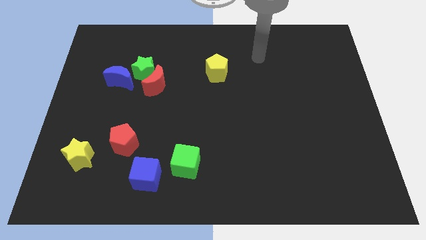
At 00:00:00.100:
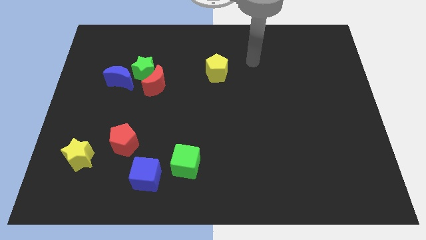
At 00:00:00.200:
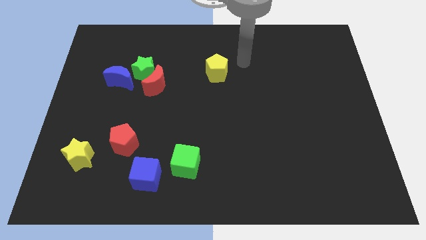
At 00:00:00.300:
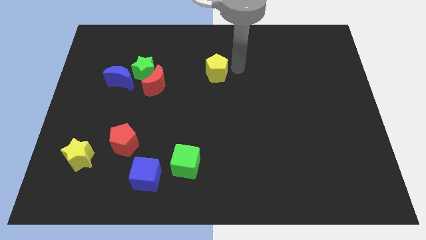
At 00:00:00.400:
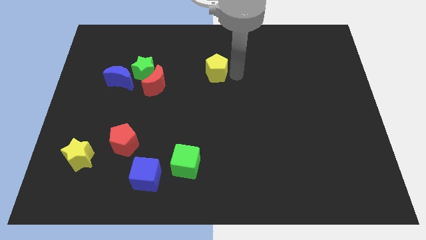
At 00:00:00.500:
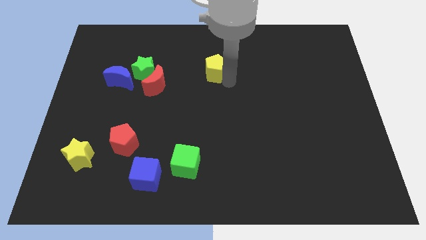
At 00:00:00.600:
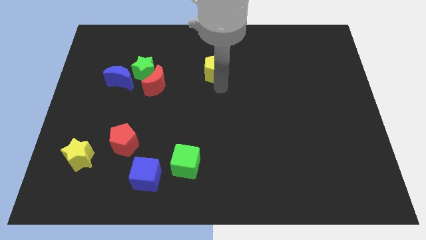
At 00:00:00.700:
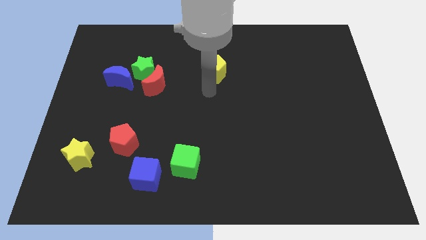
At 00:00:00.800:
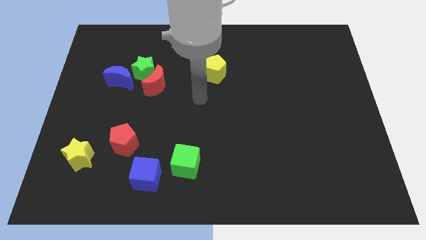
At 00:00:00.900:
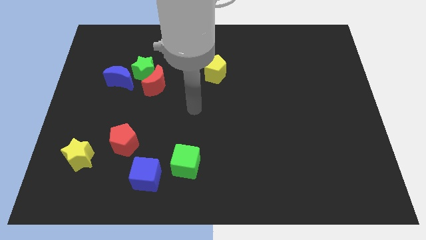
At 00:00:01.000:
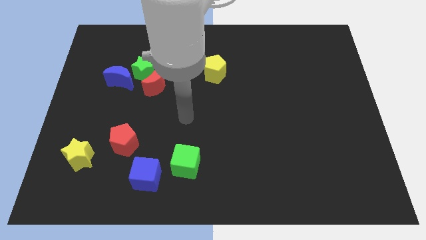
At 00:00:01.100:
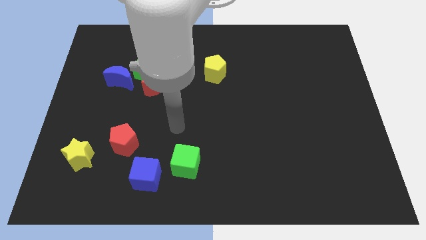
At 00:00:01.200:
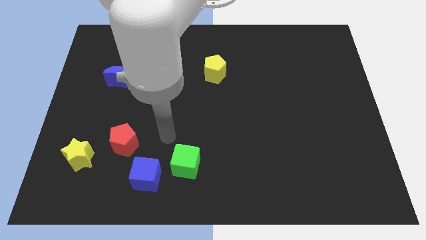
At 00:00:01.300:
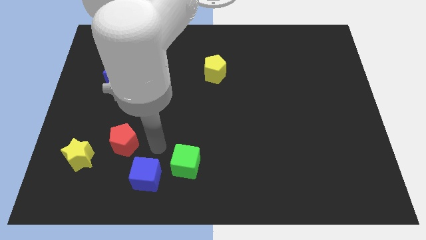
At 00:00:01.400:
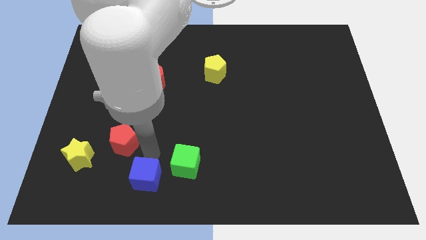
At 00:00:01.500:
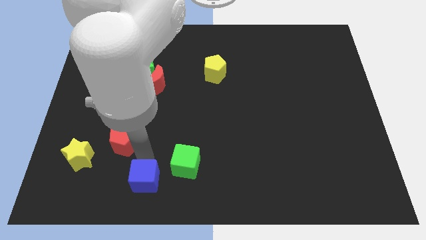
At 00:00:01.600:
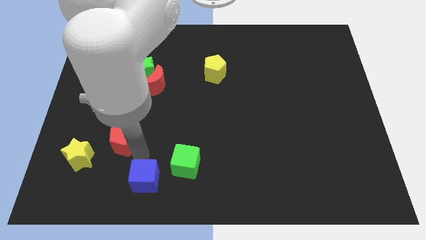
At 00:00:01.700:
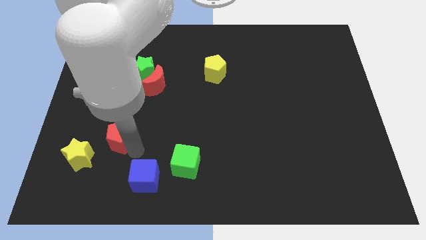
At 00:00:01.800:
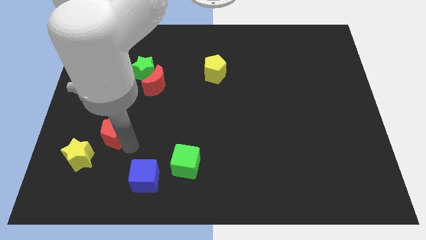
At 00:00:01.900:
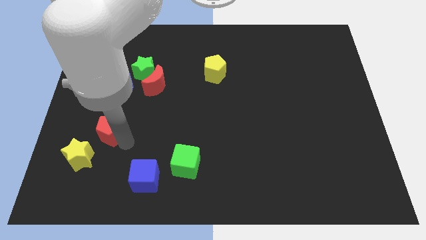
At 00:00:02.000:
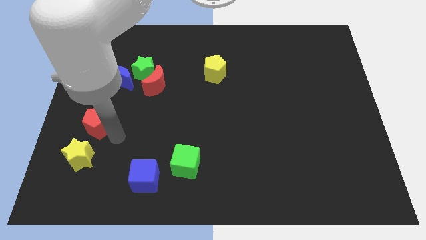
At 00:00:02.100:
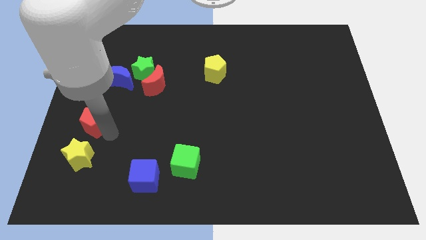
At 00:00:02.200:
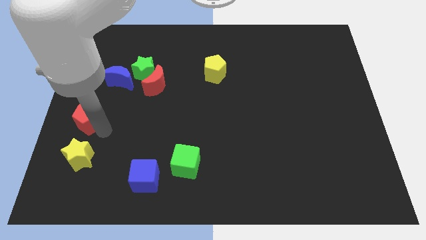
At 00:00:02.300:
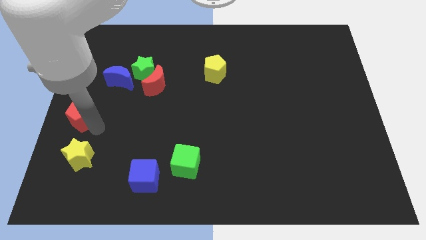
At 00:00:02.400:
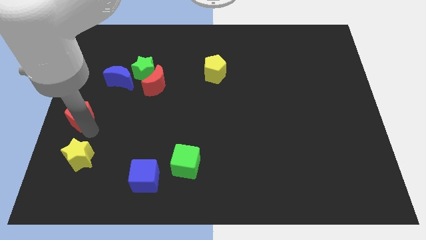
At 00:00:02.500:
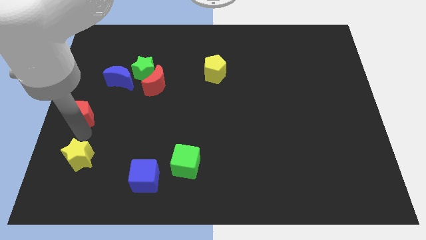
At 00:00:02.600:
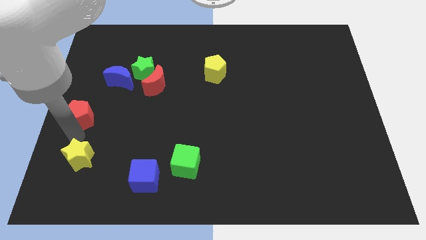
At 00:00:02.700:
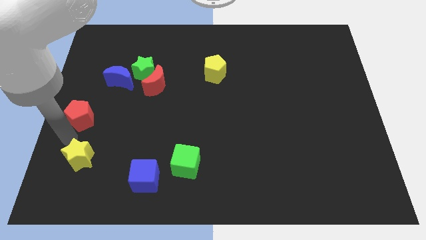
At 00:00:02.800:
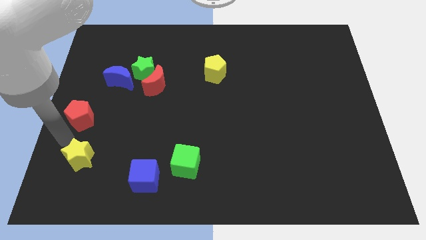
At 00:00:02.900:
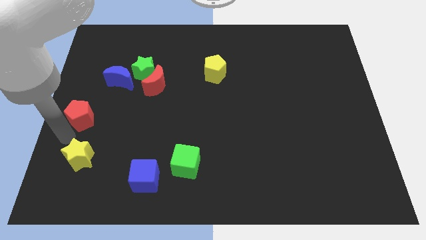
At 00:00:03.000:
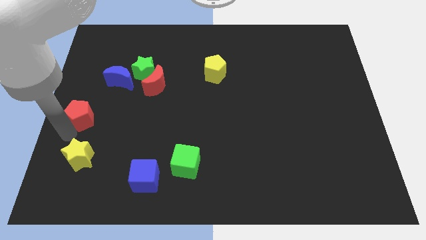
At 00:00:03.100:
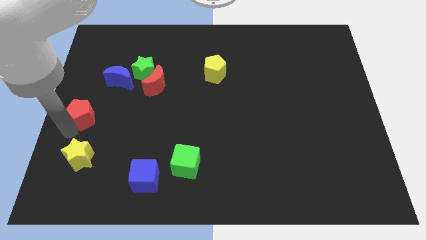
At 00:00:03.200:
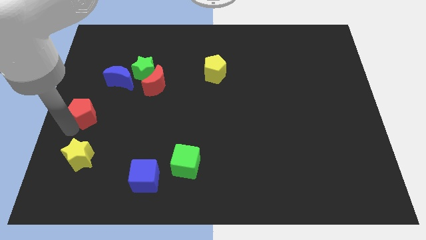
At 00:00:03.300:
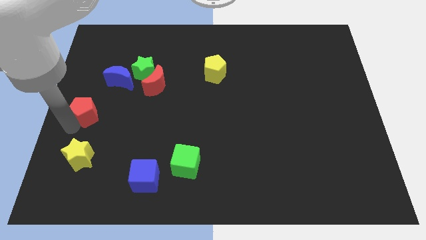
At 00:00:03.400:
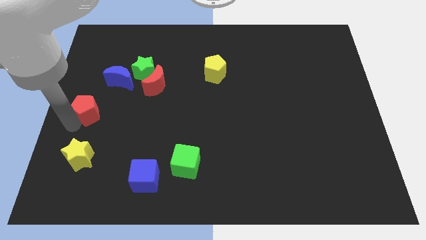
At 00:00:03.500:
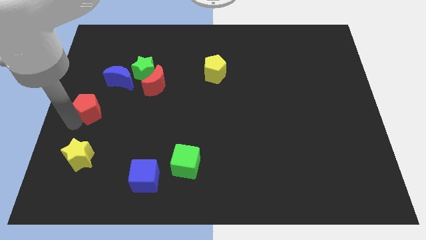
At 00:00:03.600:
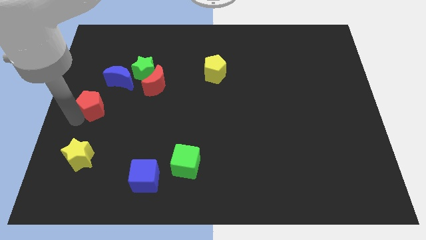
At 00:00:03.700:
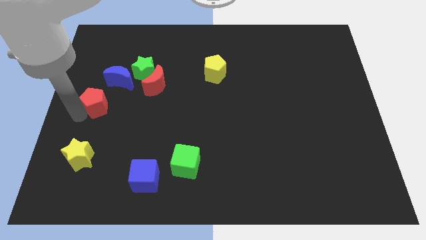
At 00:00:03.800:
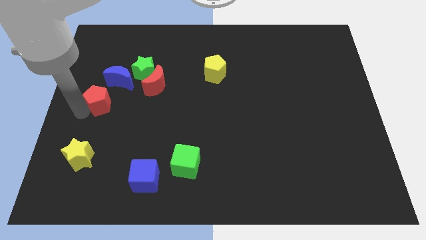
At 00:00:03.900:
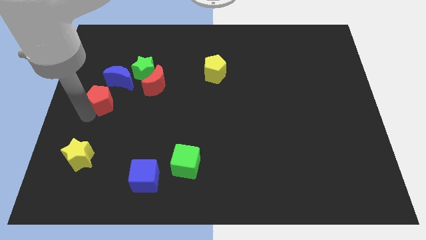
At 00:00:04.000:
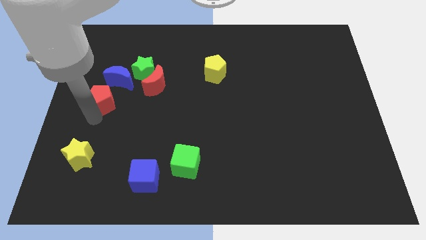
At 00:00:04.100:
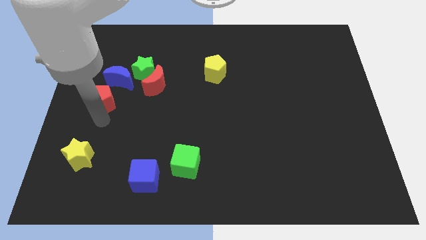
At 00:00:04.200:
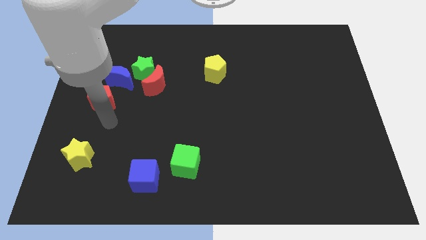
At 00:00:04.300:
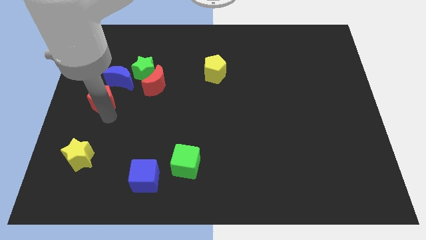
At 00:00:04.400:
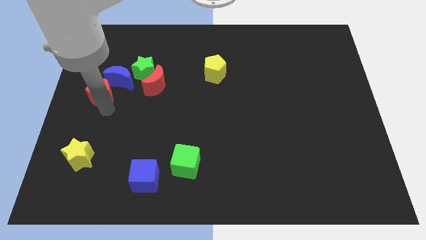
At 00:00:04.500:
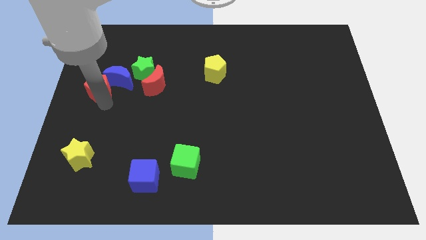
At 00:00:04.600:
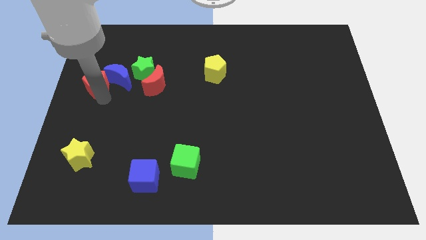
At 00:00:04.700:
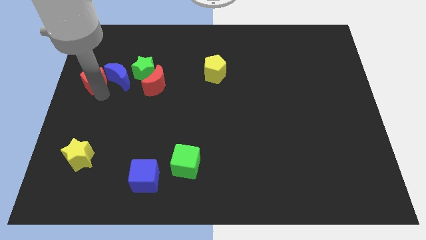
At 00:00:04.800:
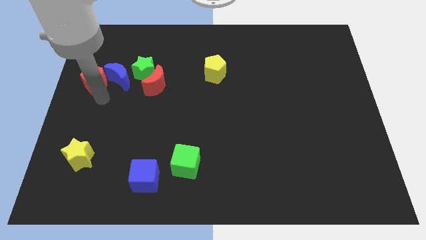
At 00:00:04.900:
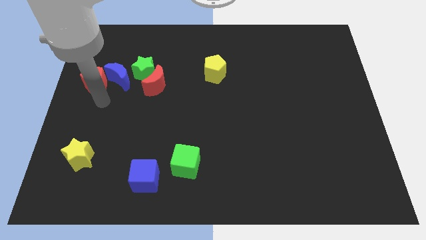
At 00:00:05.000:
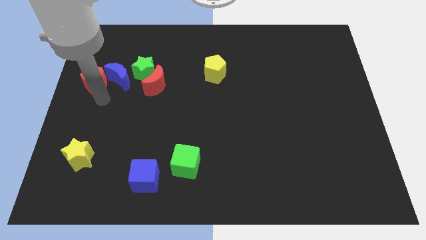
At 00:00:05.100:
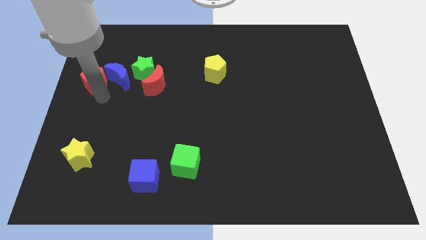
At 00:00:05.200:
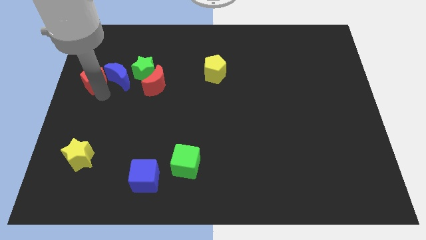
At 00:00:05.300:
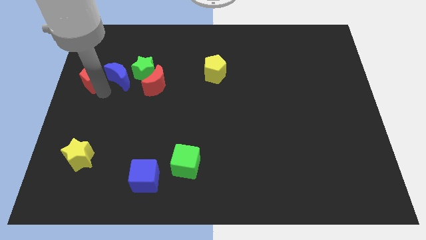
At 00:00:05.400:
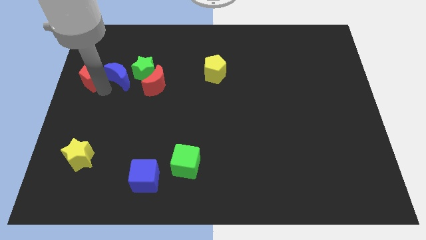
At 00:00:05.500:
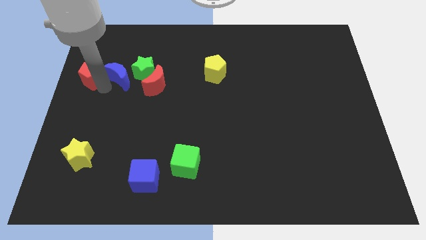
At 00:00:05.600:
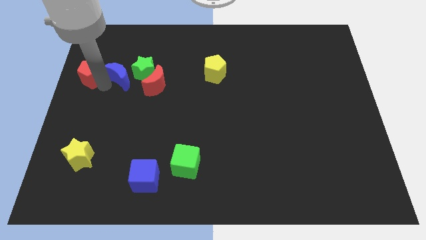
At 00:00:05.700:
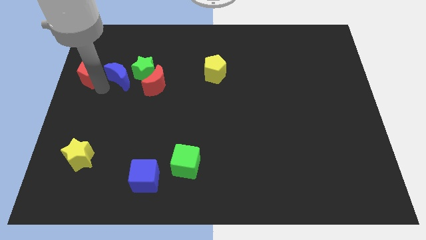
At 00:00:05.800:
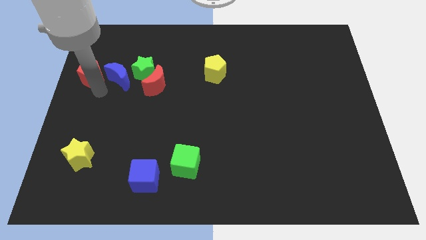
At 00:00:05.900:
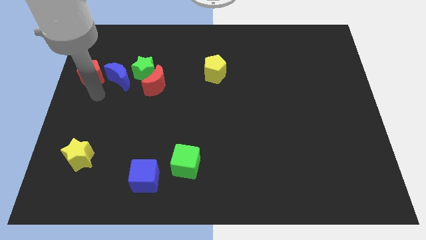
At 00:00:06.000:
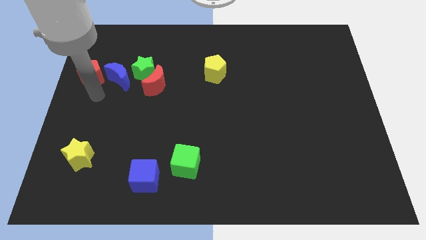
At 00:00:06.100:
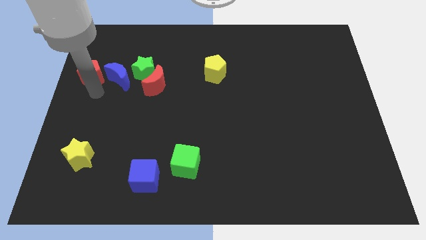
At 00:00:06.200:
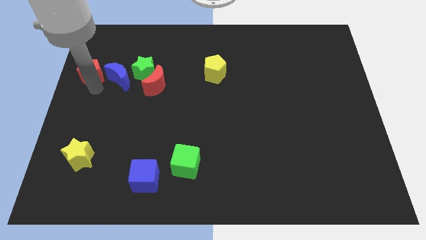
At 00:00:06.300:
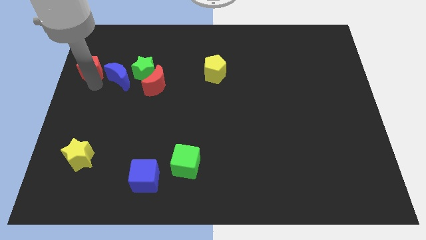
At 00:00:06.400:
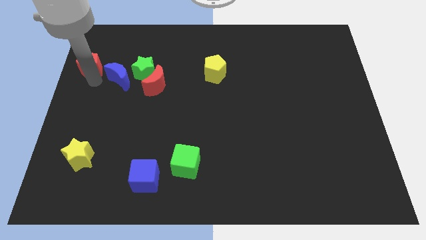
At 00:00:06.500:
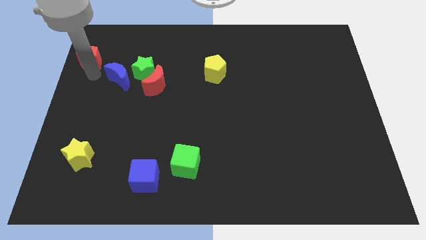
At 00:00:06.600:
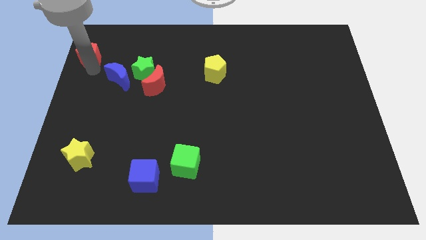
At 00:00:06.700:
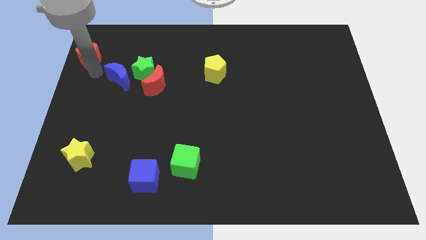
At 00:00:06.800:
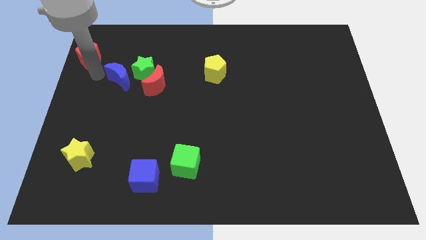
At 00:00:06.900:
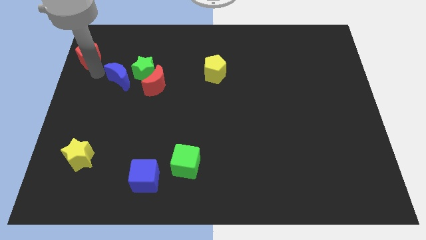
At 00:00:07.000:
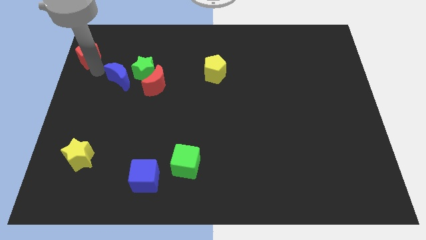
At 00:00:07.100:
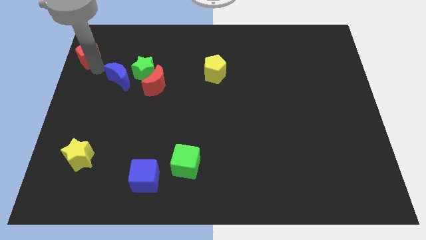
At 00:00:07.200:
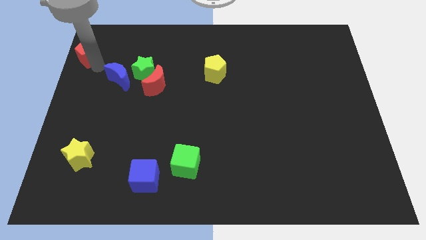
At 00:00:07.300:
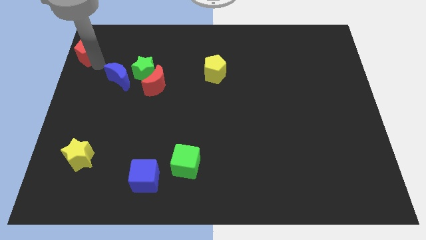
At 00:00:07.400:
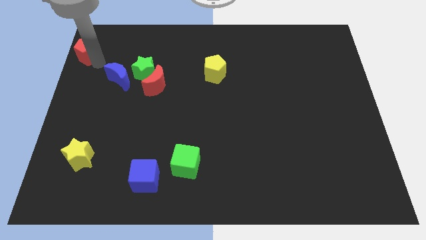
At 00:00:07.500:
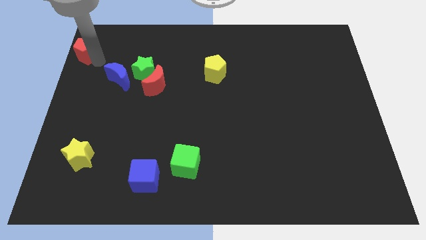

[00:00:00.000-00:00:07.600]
slide the red pentagon to the top left
